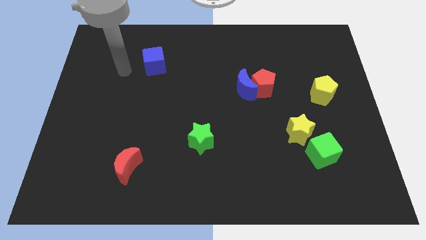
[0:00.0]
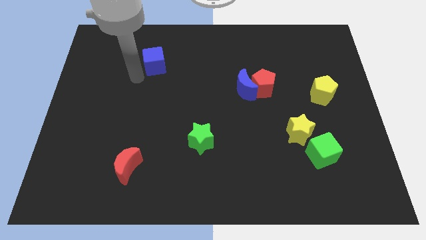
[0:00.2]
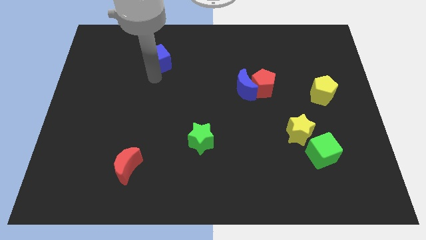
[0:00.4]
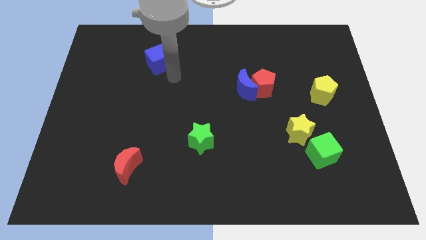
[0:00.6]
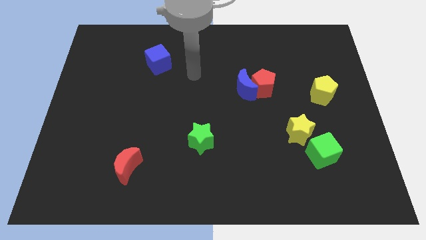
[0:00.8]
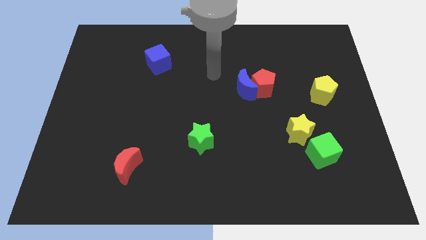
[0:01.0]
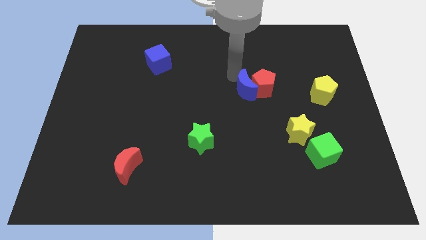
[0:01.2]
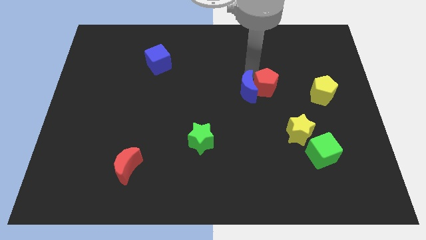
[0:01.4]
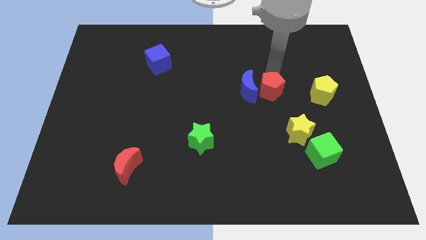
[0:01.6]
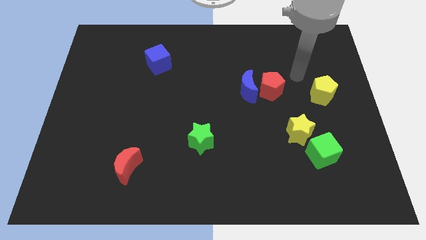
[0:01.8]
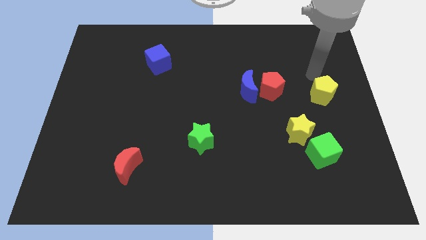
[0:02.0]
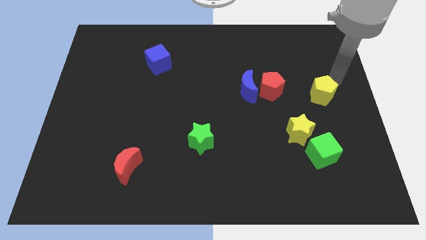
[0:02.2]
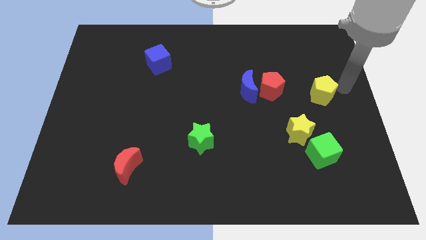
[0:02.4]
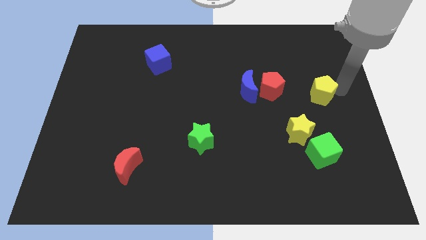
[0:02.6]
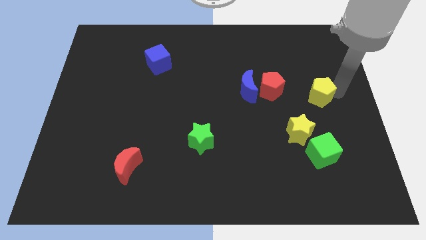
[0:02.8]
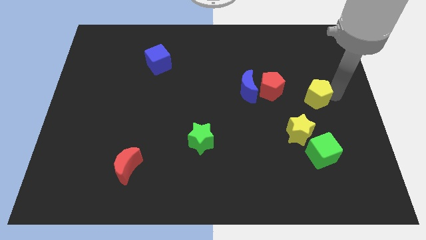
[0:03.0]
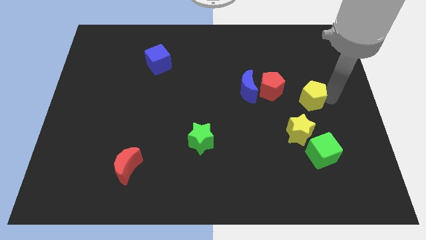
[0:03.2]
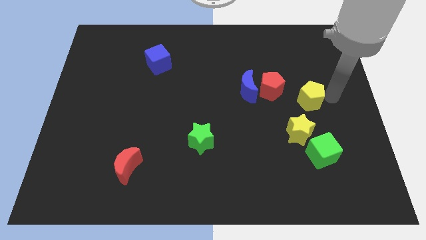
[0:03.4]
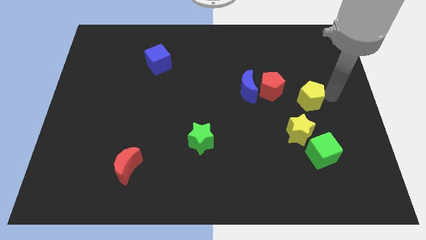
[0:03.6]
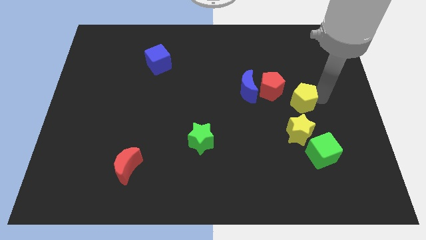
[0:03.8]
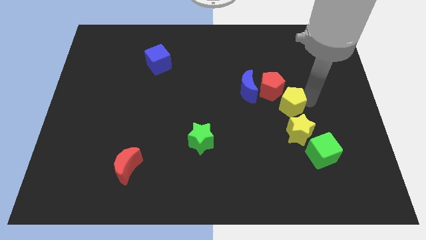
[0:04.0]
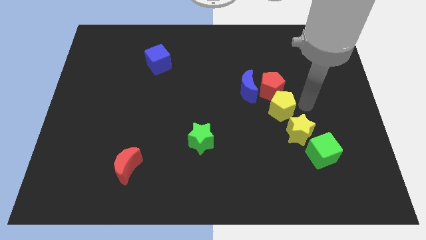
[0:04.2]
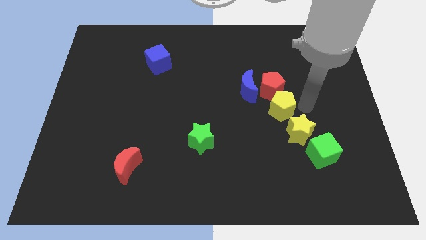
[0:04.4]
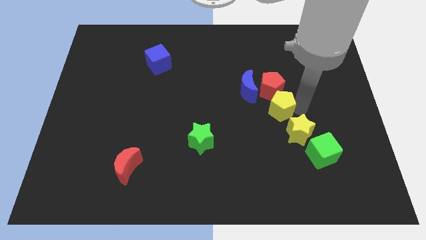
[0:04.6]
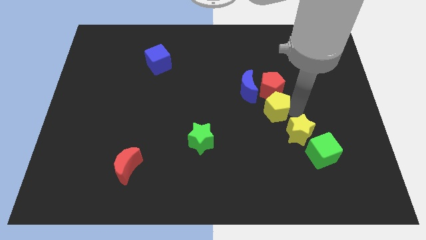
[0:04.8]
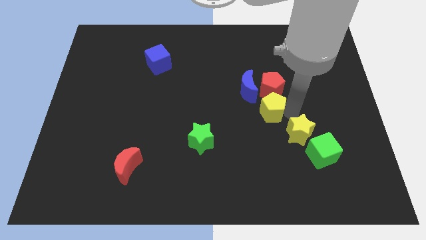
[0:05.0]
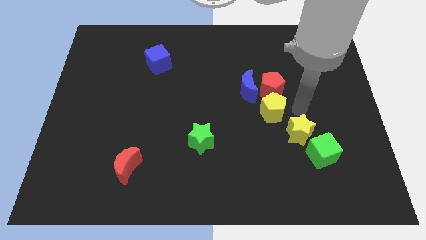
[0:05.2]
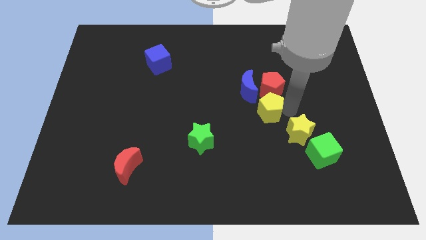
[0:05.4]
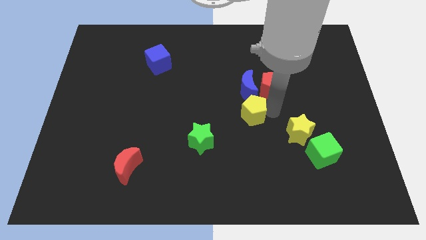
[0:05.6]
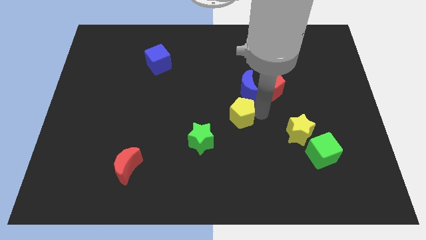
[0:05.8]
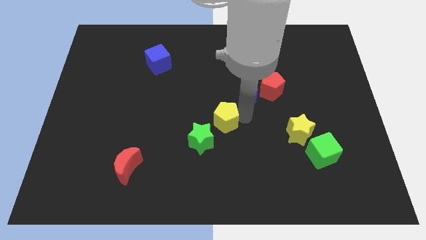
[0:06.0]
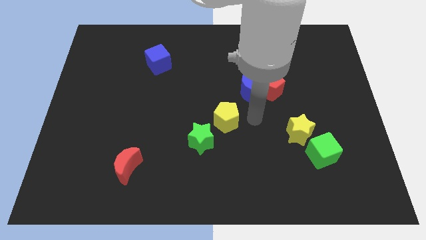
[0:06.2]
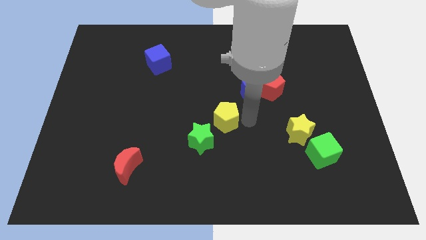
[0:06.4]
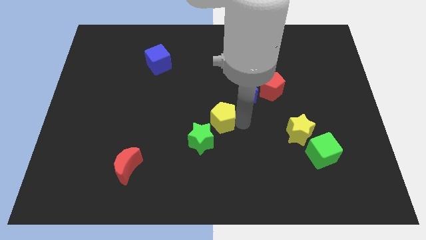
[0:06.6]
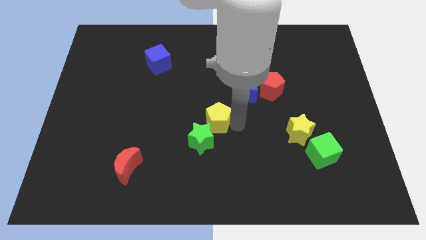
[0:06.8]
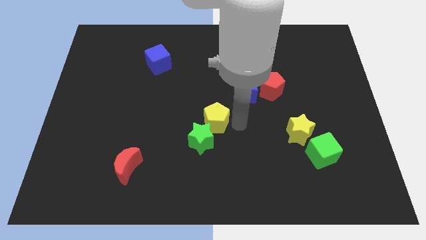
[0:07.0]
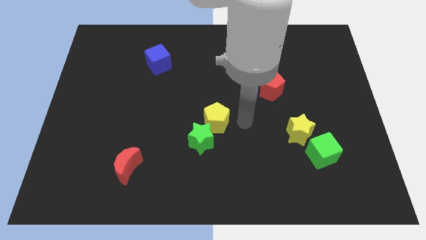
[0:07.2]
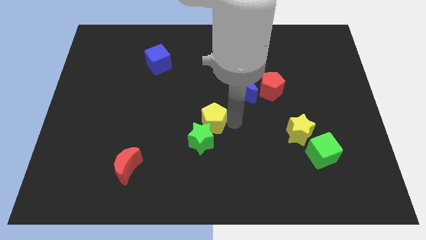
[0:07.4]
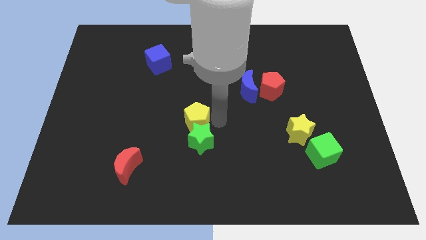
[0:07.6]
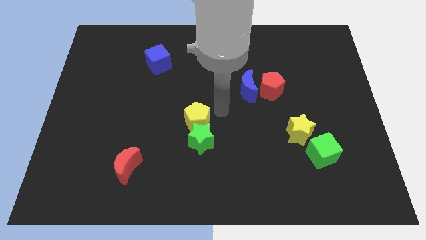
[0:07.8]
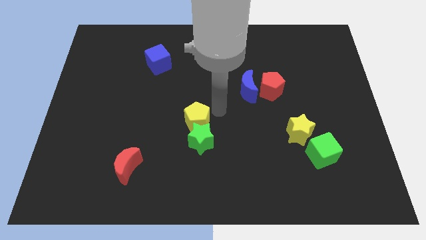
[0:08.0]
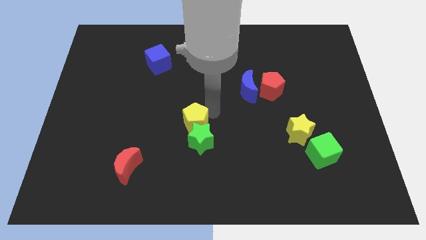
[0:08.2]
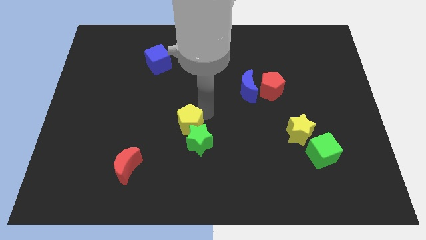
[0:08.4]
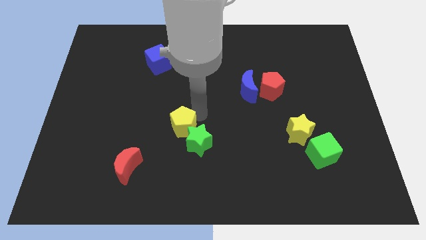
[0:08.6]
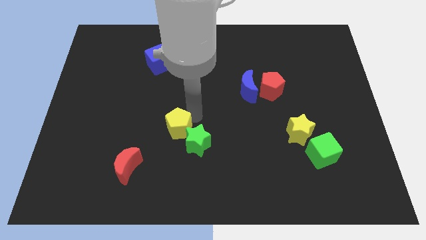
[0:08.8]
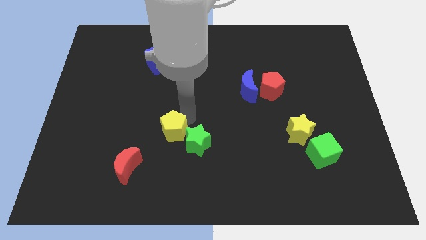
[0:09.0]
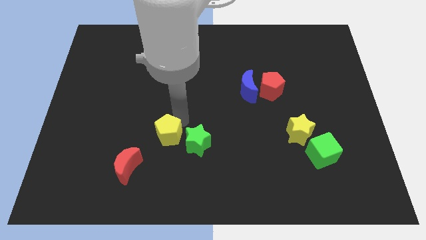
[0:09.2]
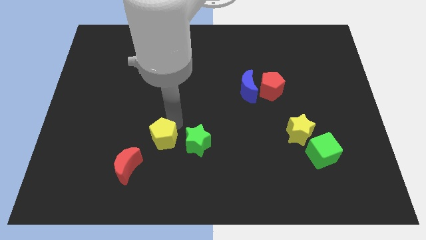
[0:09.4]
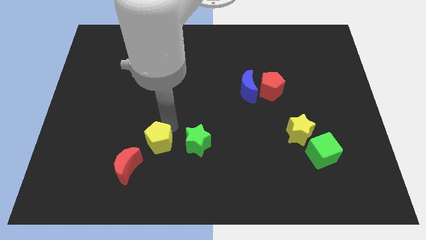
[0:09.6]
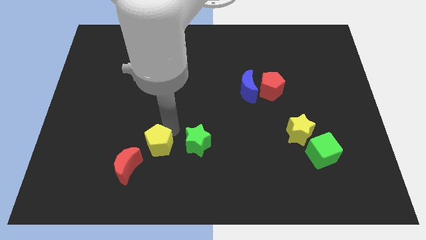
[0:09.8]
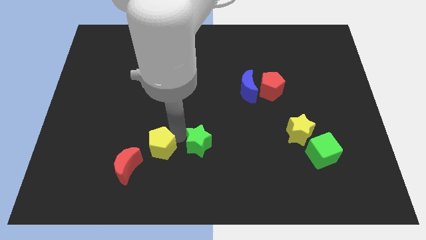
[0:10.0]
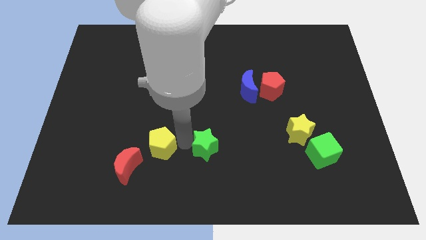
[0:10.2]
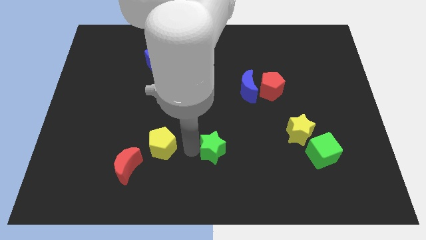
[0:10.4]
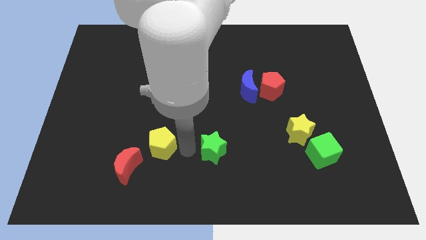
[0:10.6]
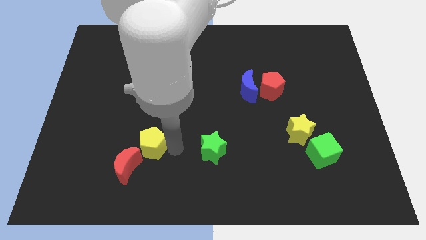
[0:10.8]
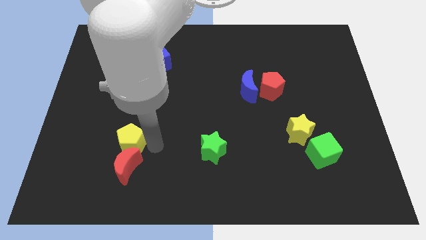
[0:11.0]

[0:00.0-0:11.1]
push the yellow pentagon to the top left side of the red moon

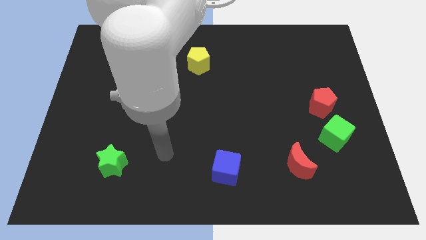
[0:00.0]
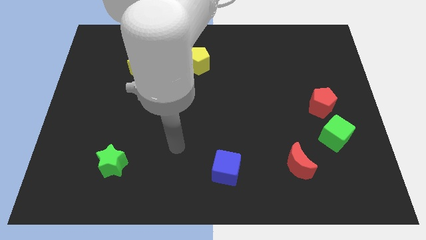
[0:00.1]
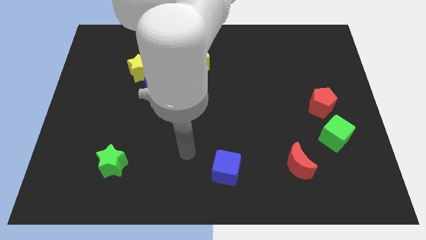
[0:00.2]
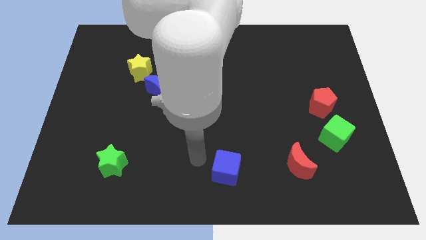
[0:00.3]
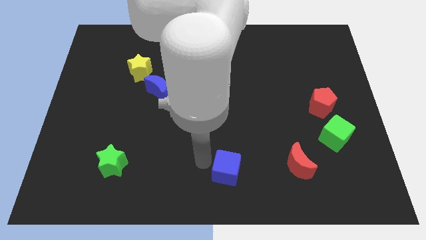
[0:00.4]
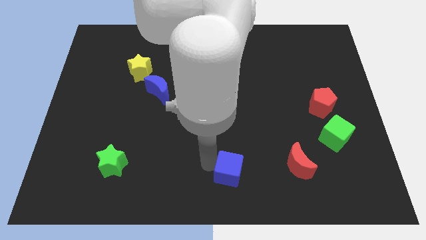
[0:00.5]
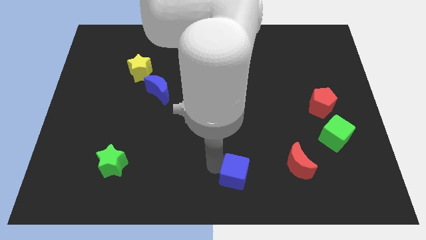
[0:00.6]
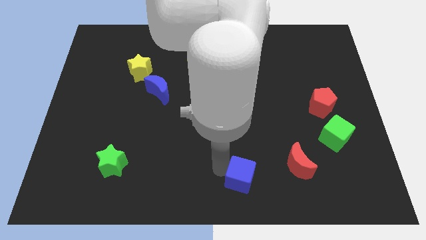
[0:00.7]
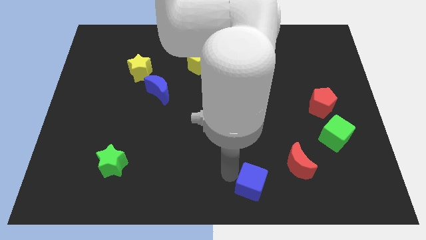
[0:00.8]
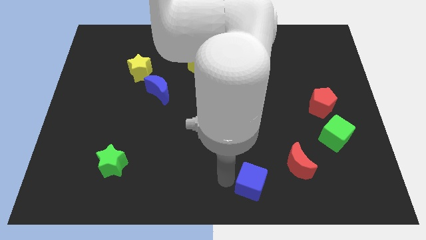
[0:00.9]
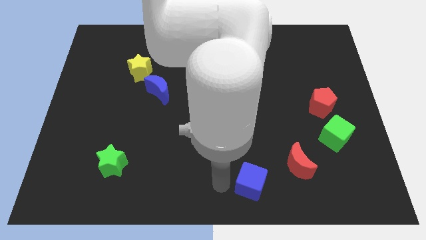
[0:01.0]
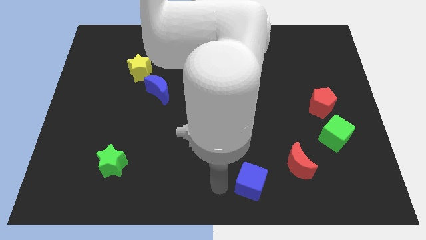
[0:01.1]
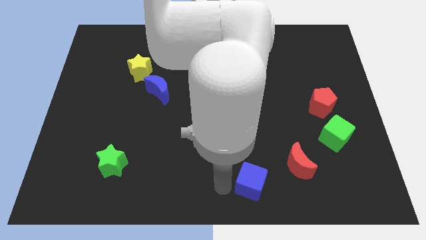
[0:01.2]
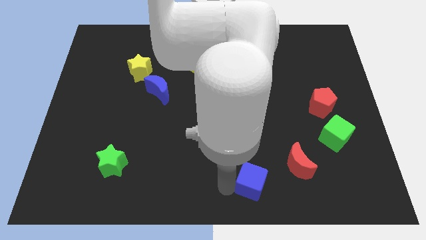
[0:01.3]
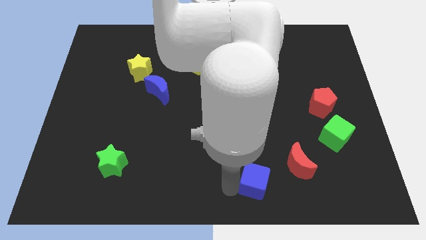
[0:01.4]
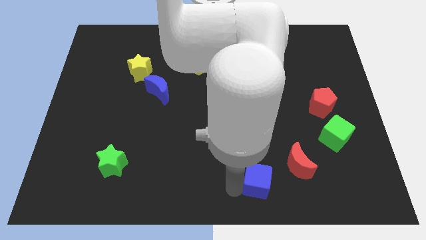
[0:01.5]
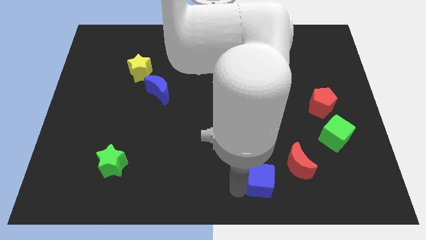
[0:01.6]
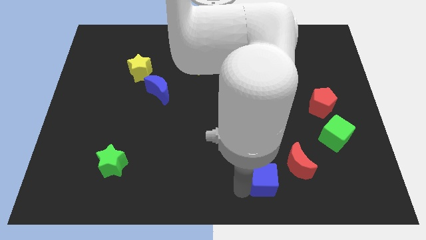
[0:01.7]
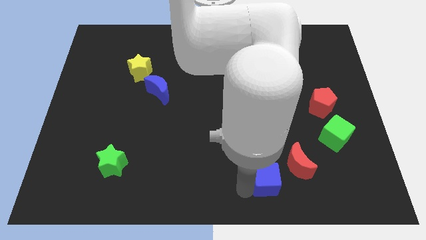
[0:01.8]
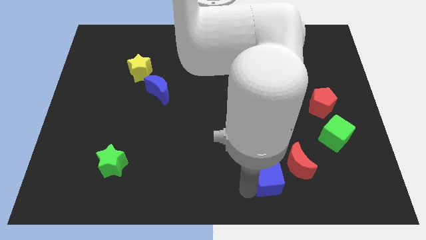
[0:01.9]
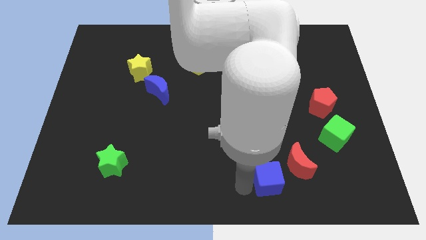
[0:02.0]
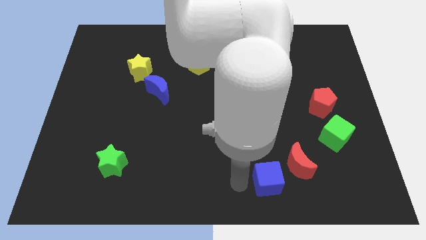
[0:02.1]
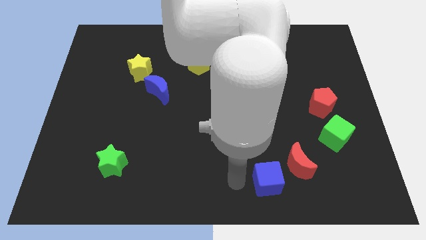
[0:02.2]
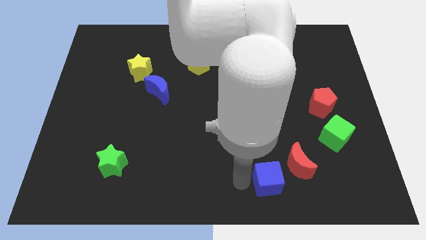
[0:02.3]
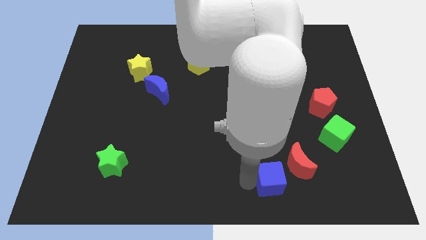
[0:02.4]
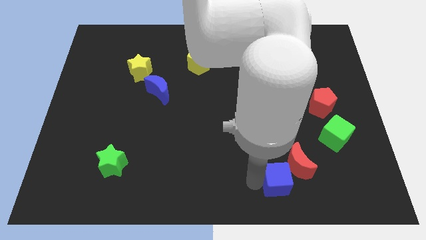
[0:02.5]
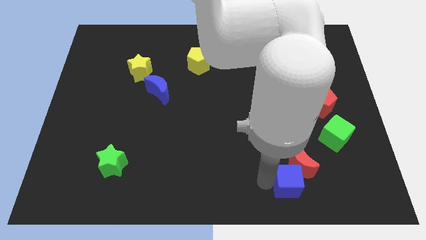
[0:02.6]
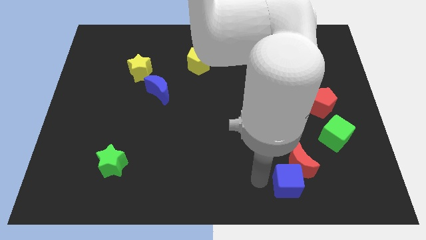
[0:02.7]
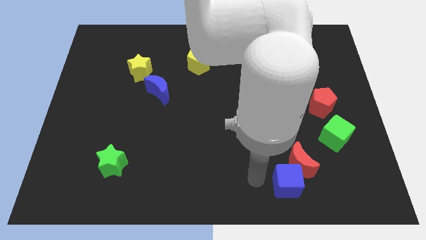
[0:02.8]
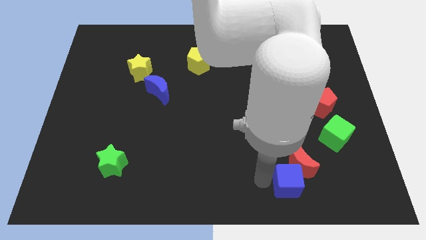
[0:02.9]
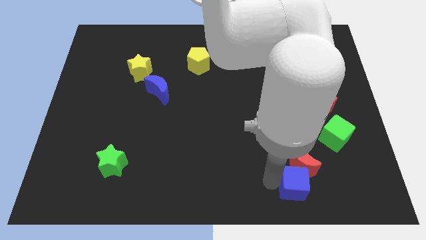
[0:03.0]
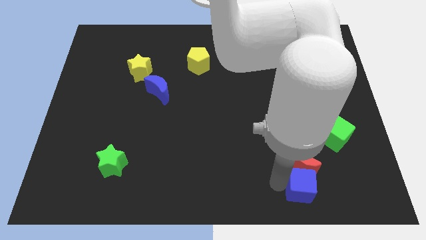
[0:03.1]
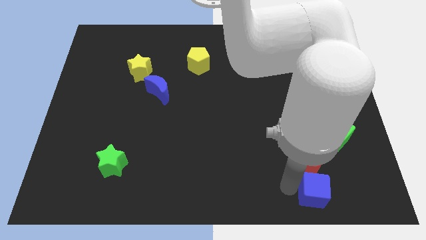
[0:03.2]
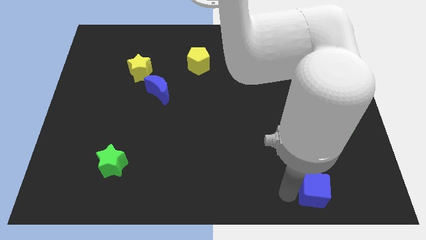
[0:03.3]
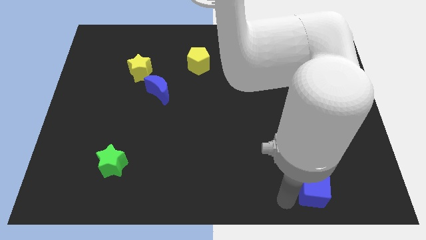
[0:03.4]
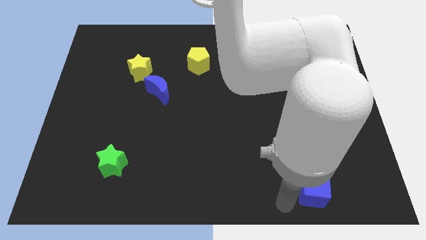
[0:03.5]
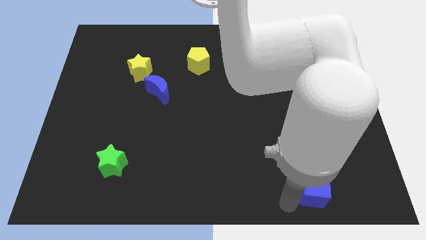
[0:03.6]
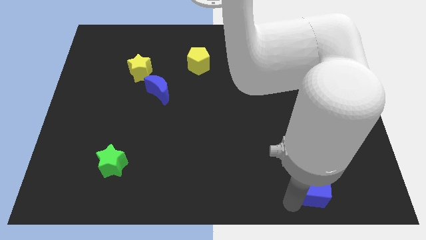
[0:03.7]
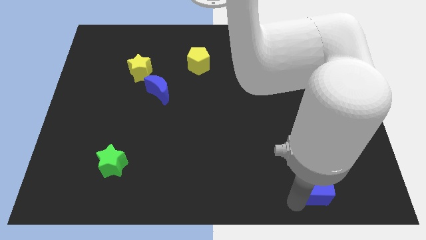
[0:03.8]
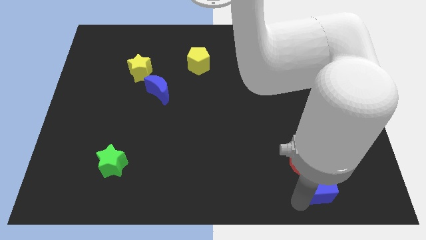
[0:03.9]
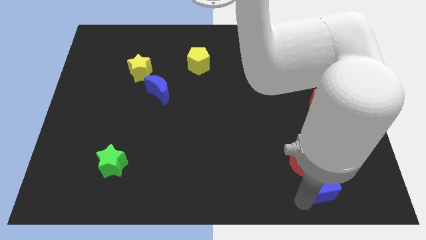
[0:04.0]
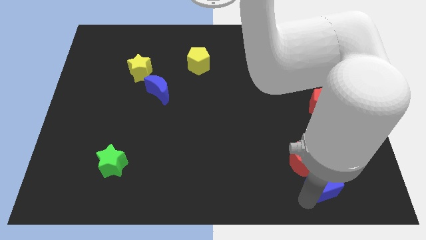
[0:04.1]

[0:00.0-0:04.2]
slide the blue cube to the bottom side of the green cube
